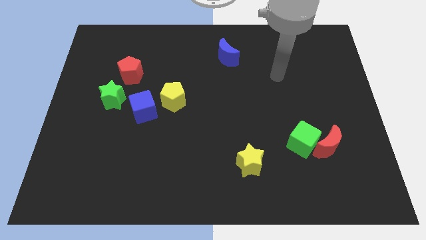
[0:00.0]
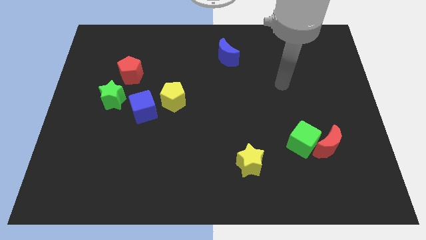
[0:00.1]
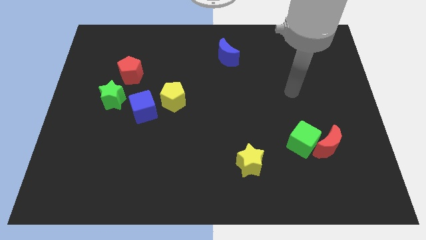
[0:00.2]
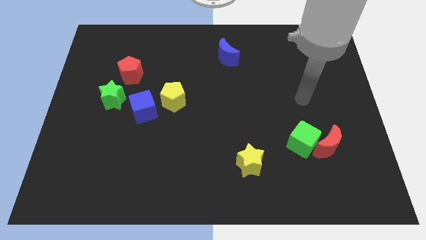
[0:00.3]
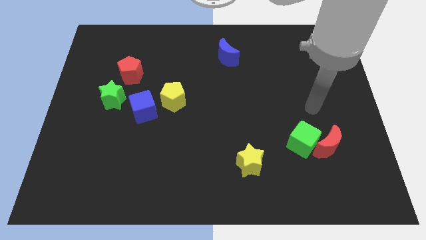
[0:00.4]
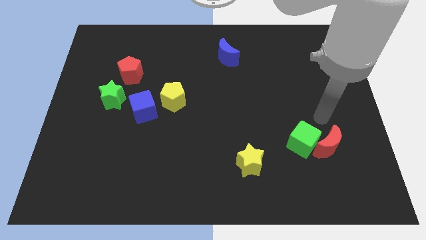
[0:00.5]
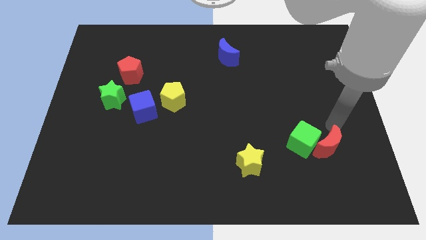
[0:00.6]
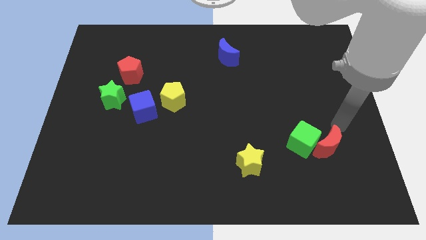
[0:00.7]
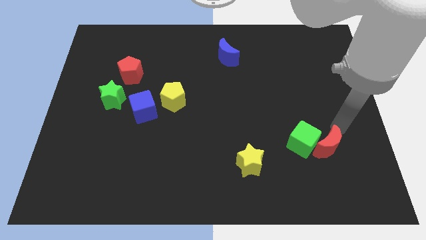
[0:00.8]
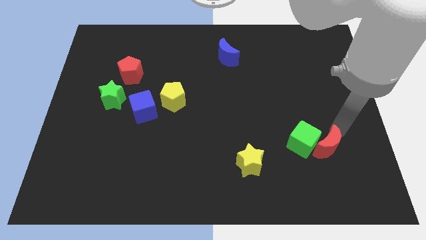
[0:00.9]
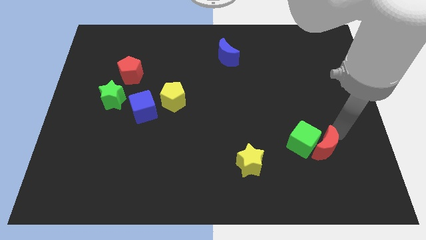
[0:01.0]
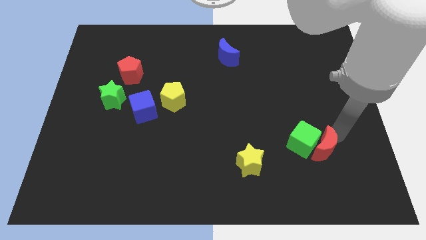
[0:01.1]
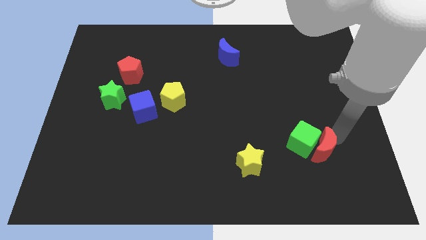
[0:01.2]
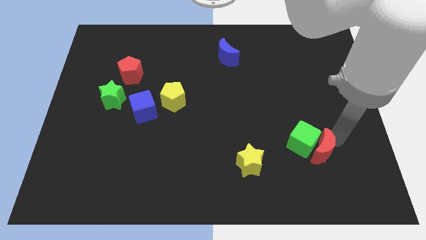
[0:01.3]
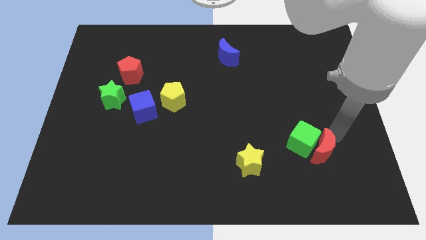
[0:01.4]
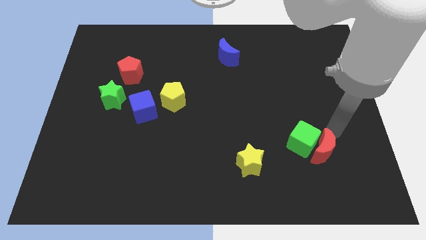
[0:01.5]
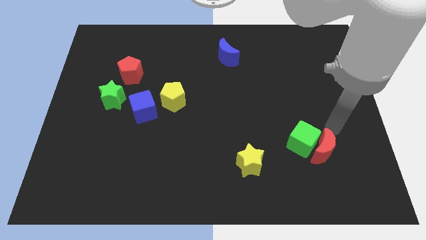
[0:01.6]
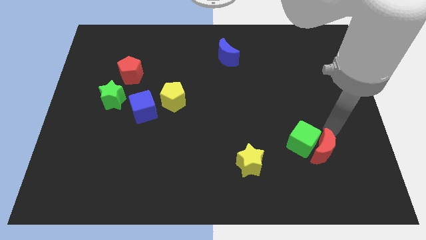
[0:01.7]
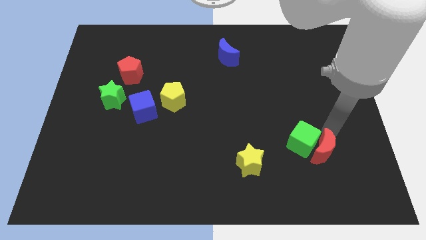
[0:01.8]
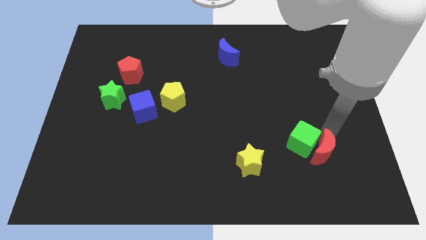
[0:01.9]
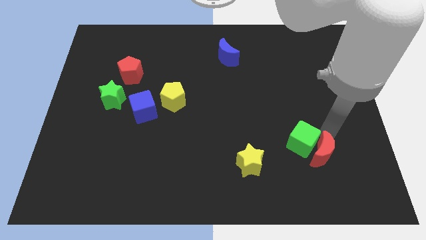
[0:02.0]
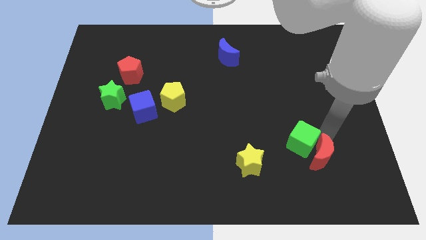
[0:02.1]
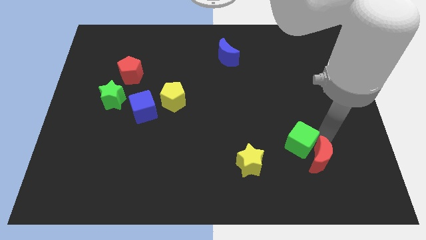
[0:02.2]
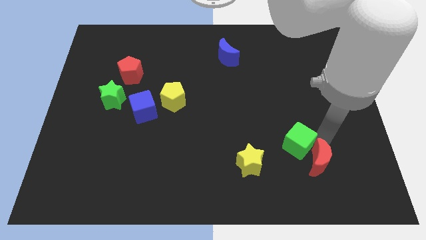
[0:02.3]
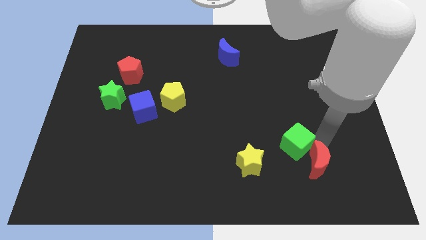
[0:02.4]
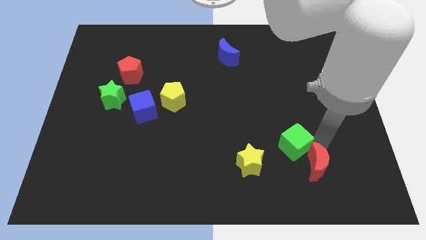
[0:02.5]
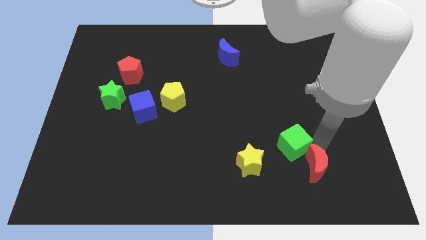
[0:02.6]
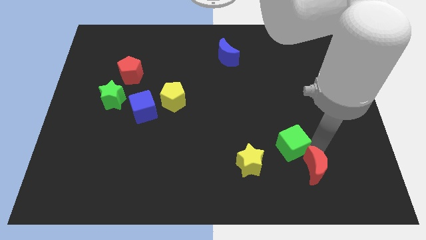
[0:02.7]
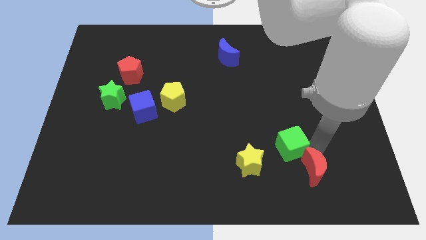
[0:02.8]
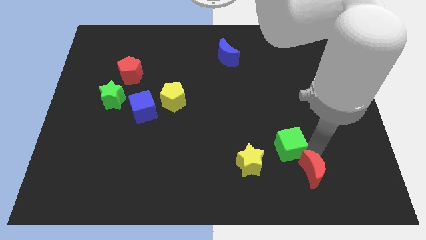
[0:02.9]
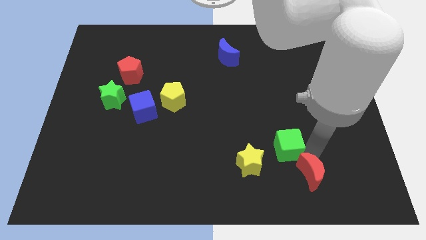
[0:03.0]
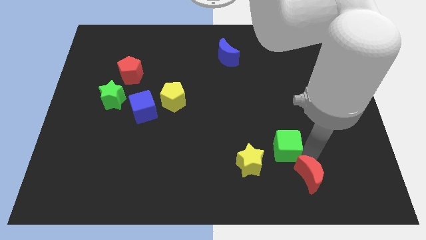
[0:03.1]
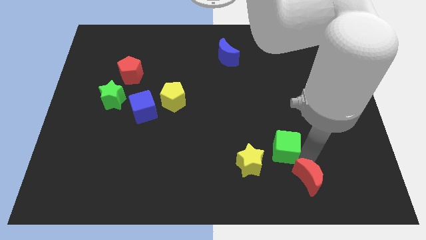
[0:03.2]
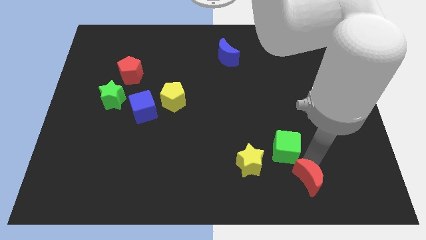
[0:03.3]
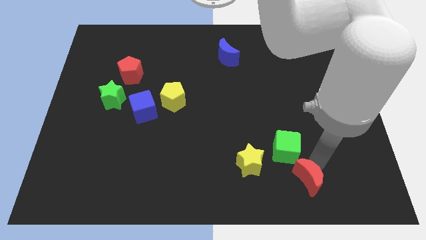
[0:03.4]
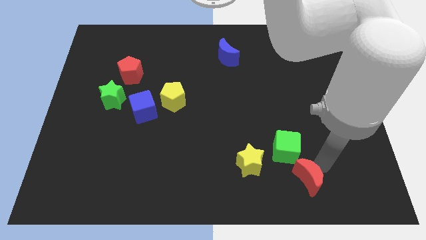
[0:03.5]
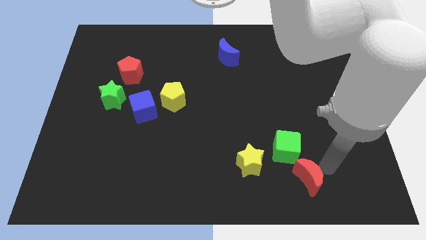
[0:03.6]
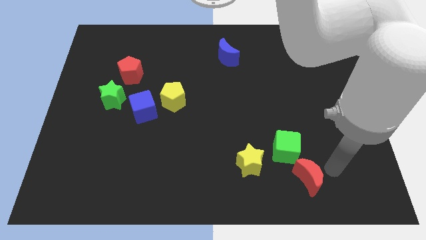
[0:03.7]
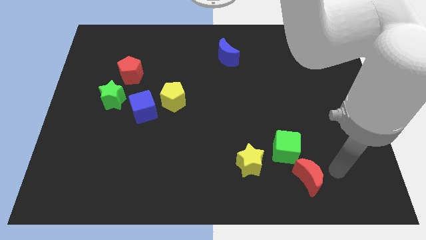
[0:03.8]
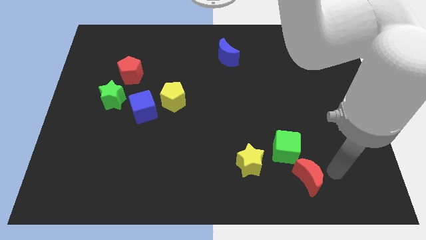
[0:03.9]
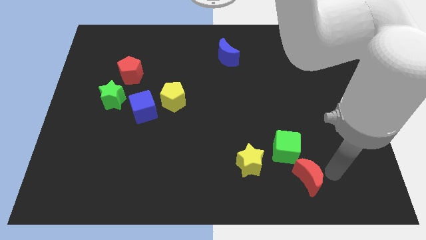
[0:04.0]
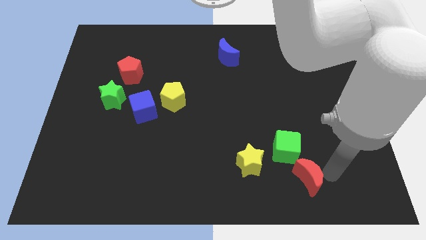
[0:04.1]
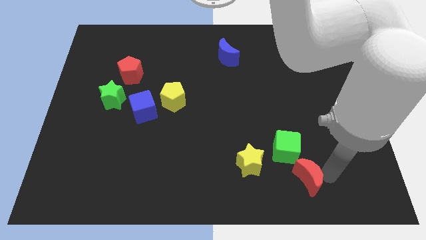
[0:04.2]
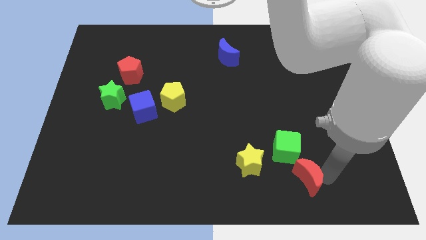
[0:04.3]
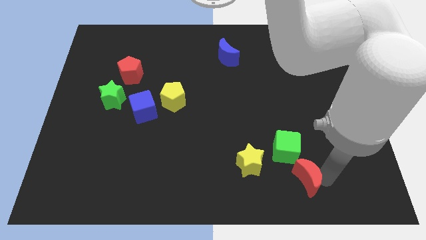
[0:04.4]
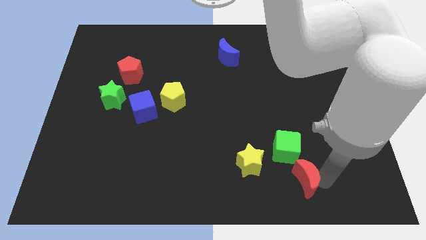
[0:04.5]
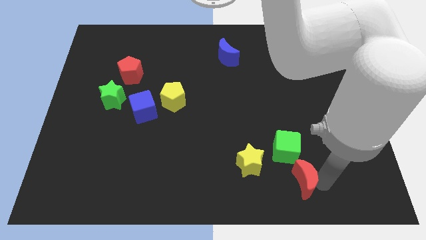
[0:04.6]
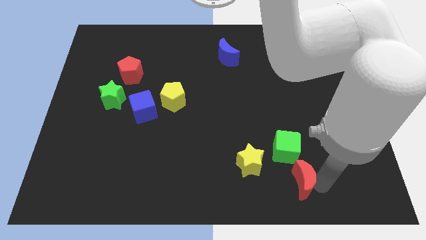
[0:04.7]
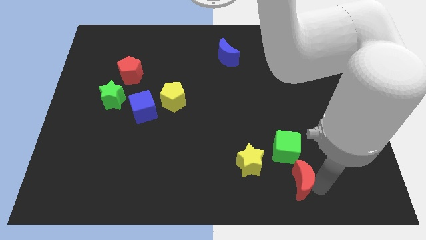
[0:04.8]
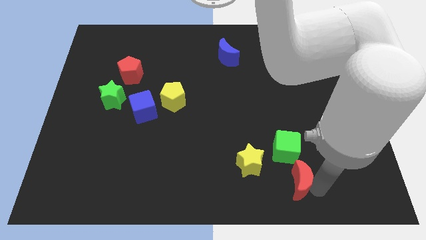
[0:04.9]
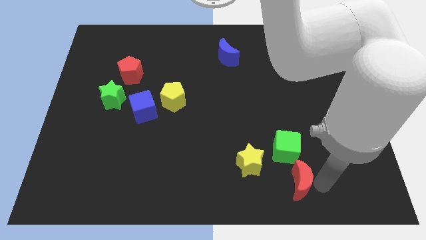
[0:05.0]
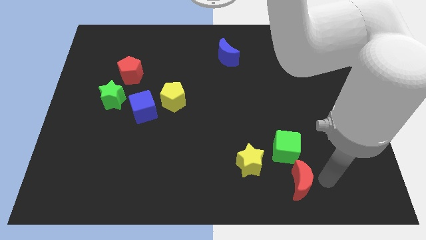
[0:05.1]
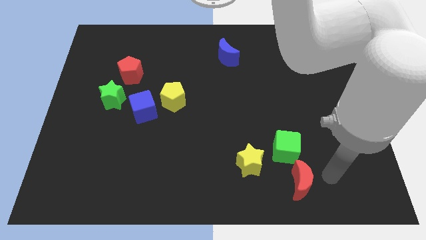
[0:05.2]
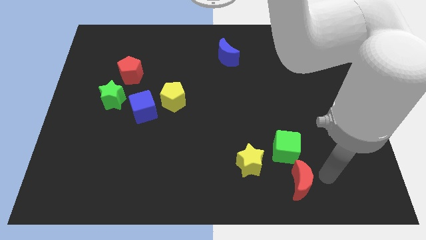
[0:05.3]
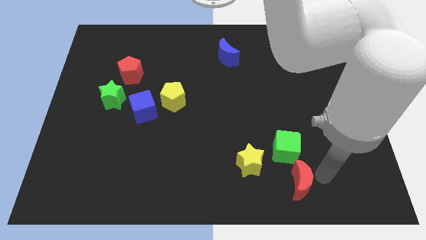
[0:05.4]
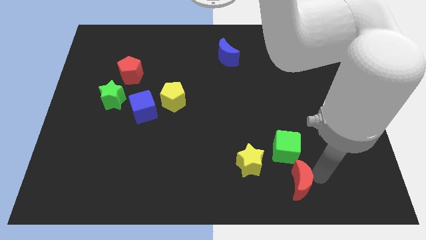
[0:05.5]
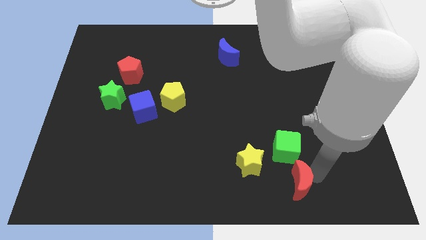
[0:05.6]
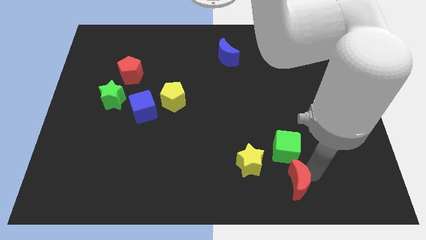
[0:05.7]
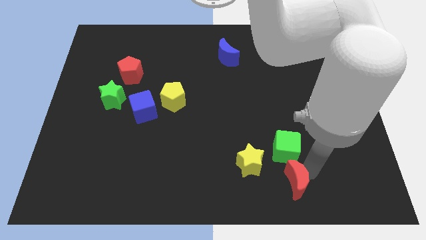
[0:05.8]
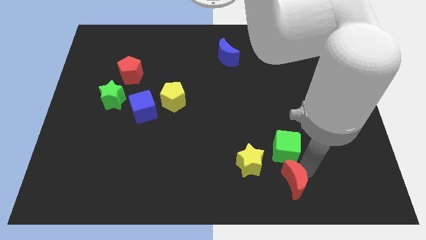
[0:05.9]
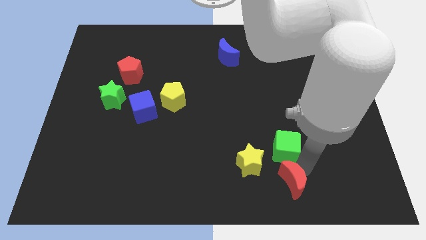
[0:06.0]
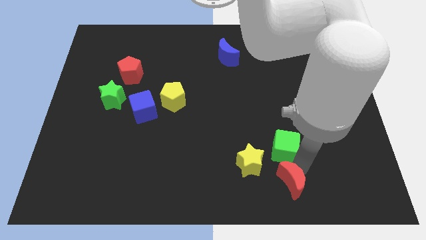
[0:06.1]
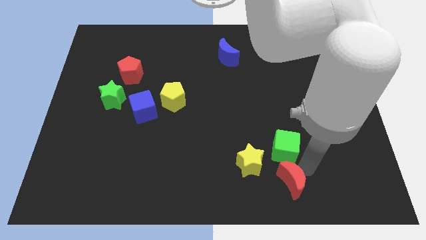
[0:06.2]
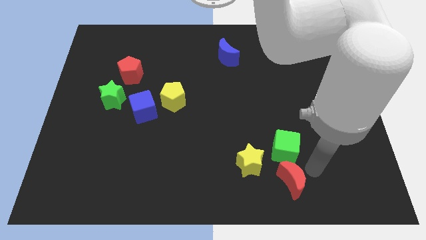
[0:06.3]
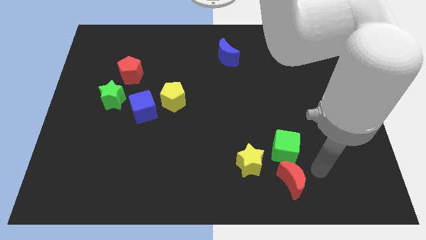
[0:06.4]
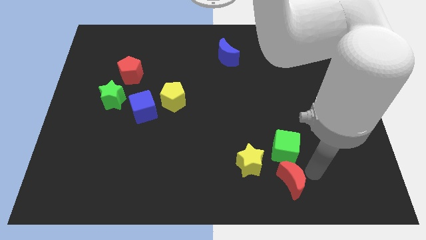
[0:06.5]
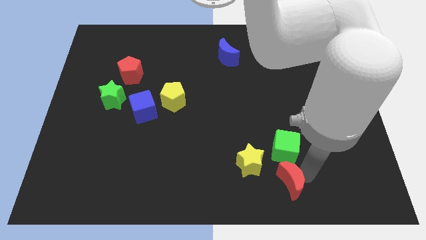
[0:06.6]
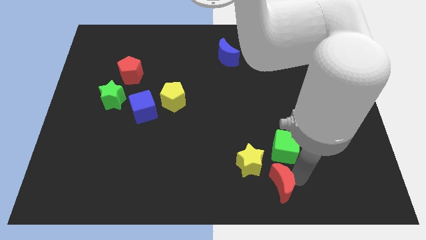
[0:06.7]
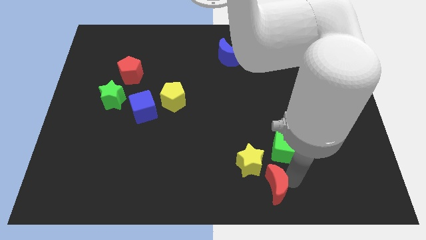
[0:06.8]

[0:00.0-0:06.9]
put the red moon to the bottom
